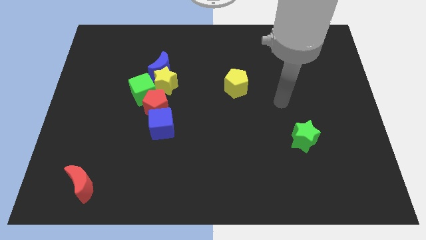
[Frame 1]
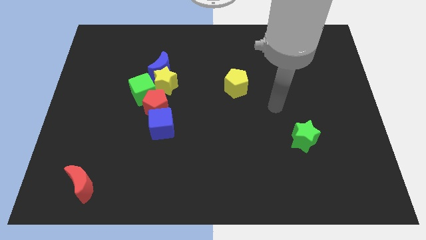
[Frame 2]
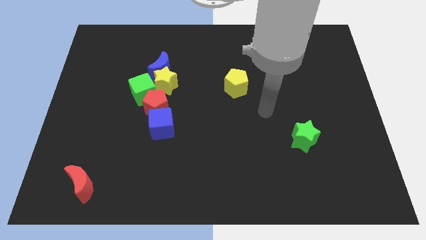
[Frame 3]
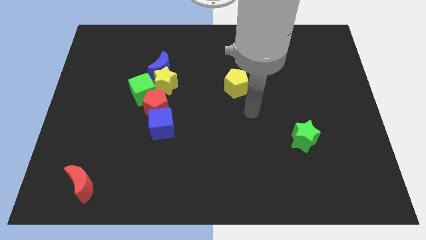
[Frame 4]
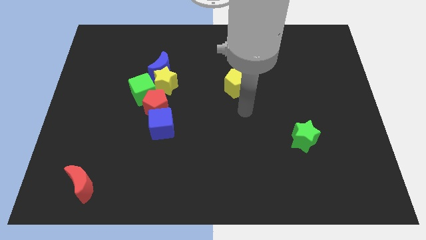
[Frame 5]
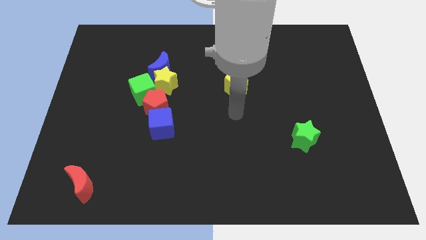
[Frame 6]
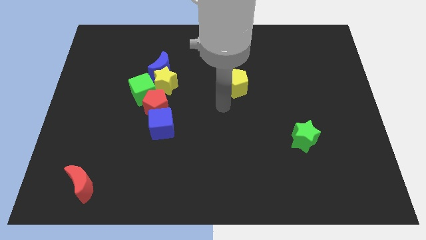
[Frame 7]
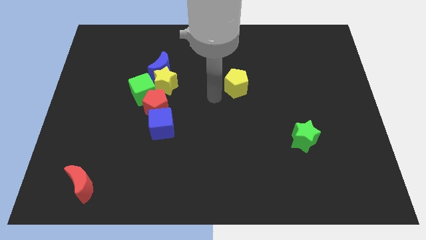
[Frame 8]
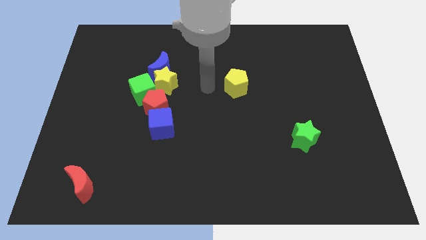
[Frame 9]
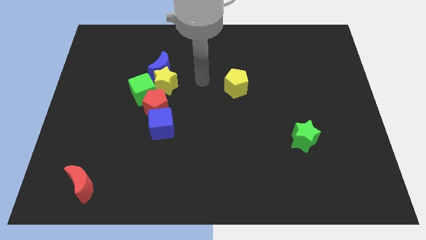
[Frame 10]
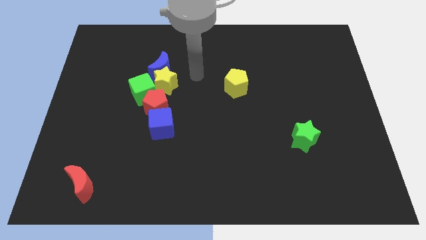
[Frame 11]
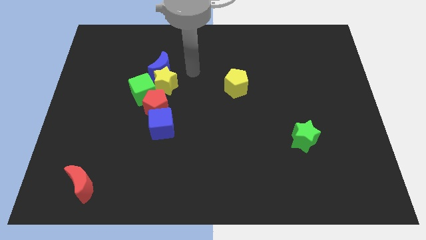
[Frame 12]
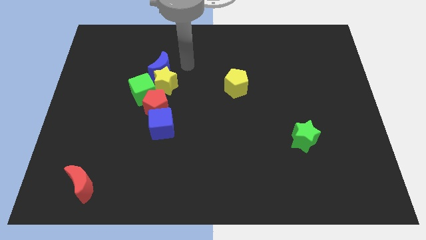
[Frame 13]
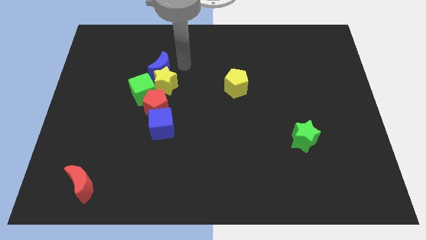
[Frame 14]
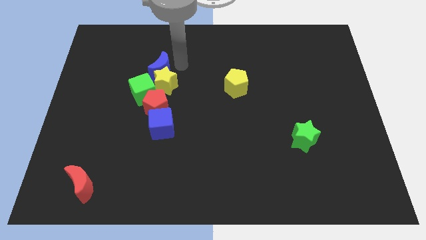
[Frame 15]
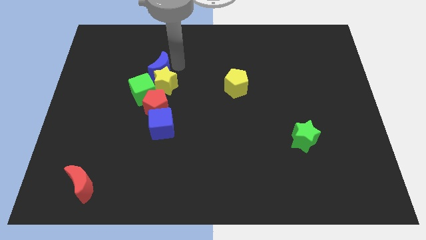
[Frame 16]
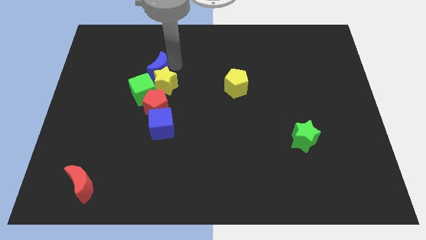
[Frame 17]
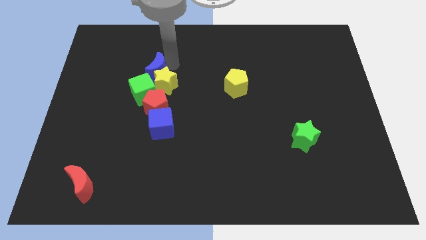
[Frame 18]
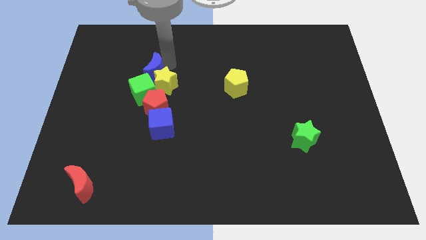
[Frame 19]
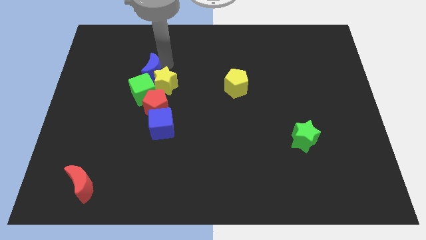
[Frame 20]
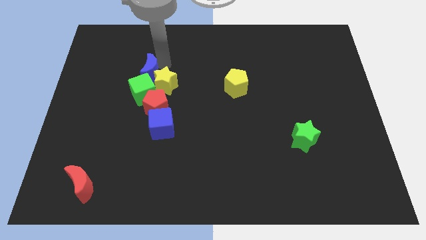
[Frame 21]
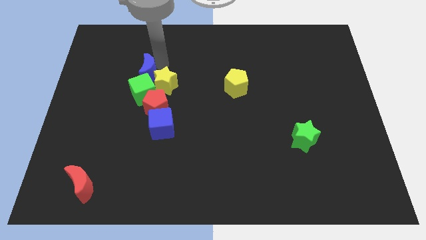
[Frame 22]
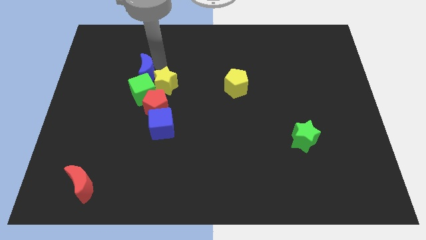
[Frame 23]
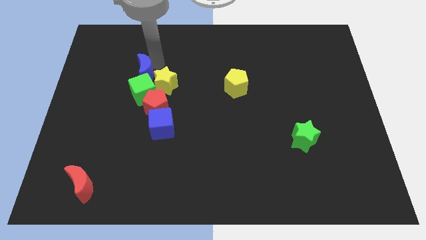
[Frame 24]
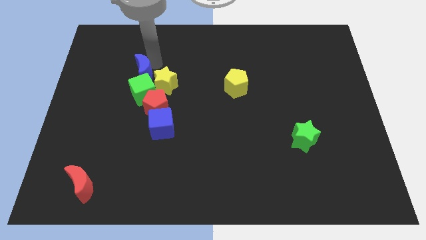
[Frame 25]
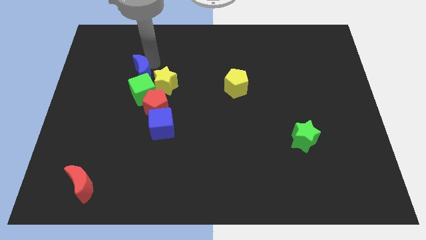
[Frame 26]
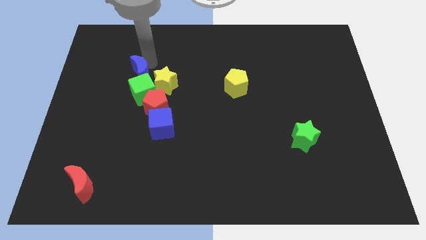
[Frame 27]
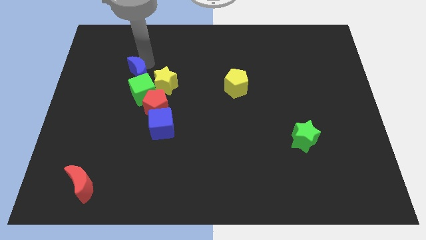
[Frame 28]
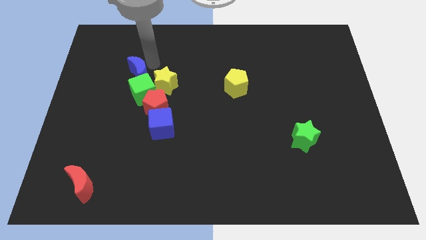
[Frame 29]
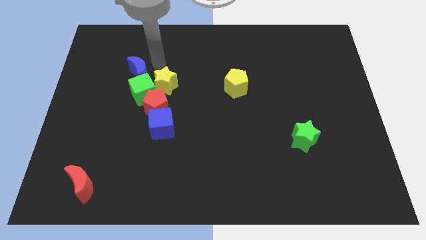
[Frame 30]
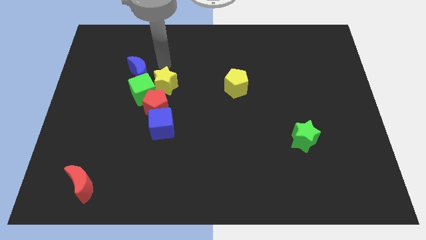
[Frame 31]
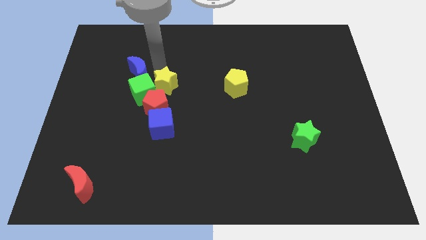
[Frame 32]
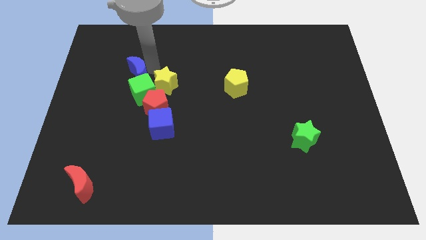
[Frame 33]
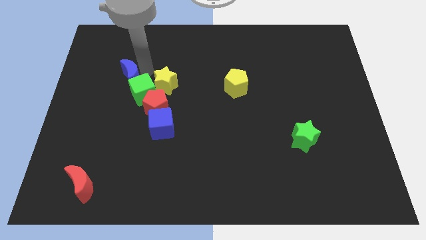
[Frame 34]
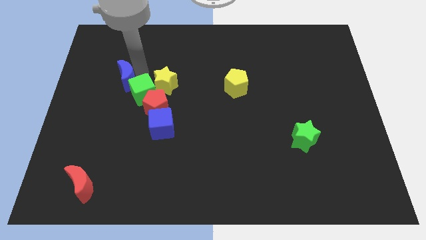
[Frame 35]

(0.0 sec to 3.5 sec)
slightly move the blue moon downwards and to the left diagonally

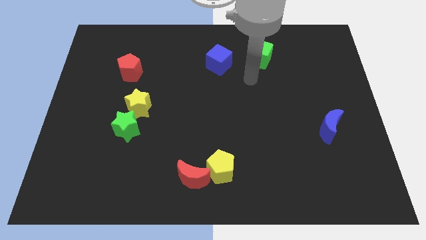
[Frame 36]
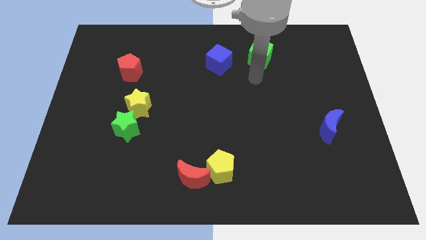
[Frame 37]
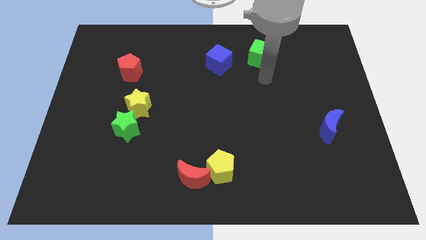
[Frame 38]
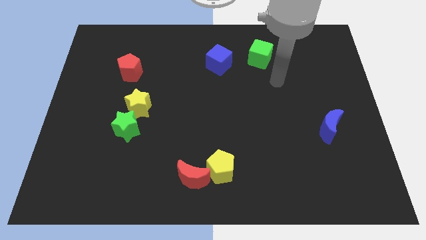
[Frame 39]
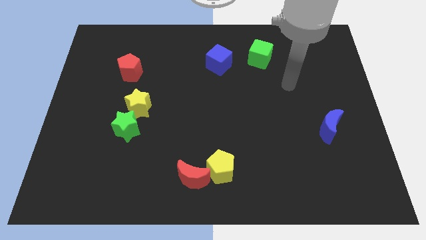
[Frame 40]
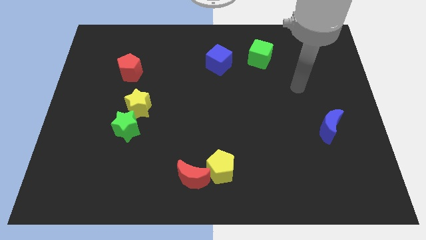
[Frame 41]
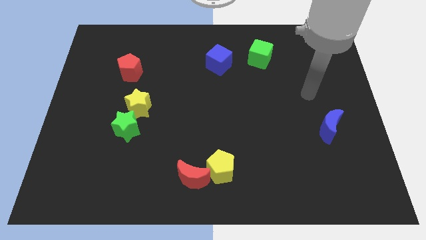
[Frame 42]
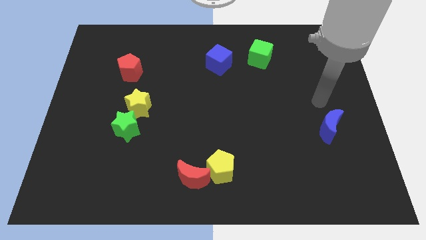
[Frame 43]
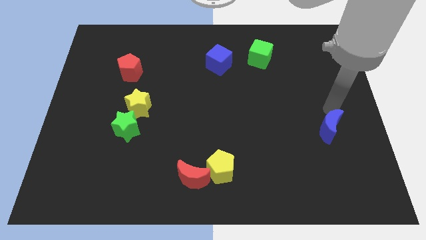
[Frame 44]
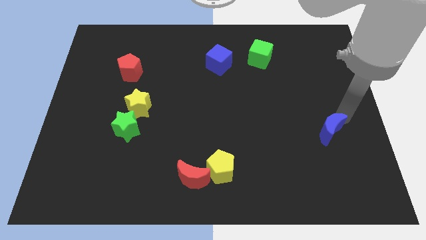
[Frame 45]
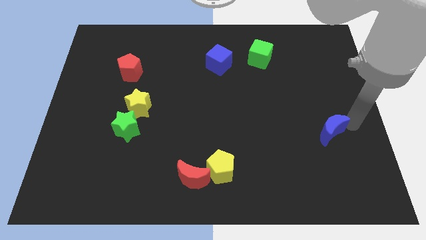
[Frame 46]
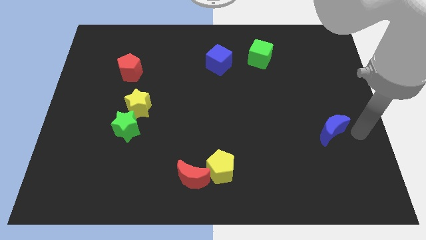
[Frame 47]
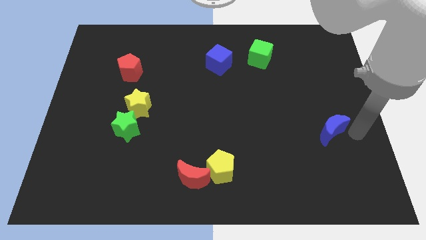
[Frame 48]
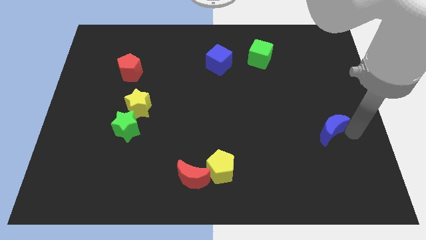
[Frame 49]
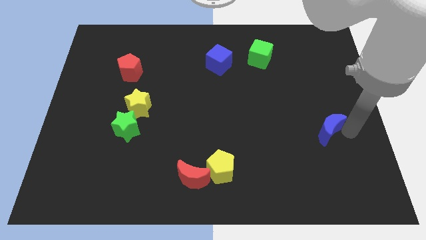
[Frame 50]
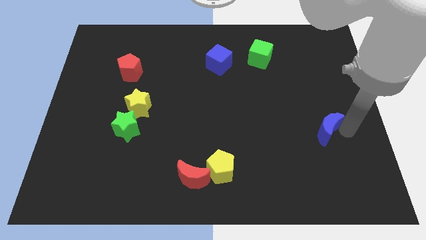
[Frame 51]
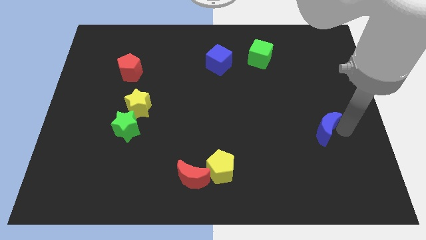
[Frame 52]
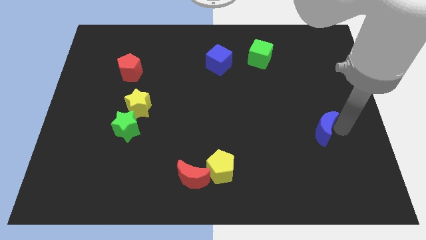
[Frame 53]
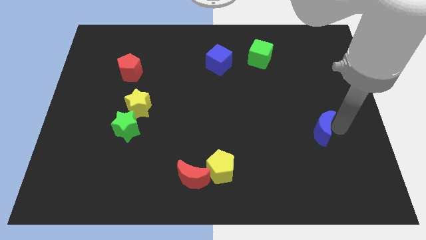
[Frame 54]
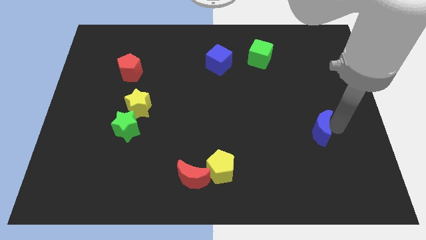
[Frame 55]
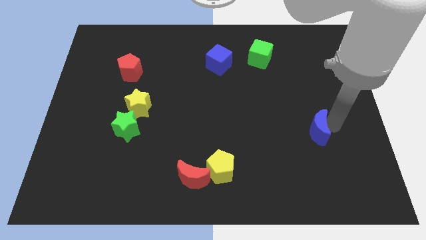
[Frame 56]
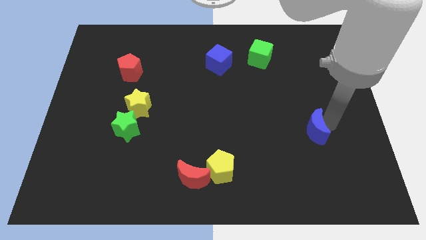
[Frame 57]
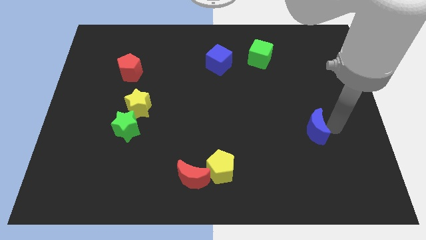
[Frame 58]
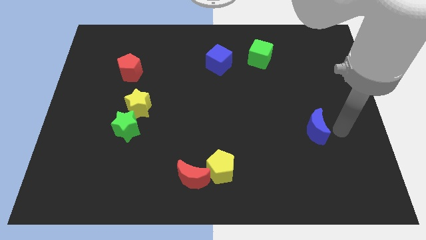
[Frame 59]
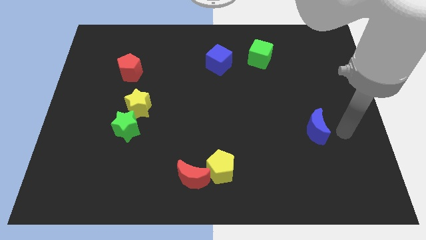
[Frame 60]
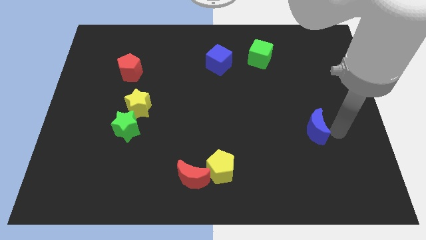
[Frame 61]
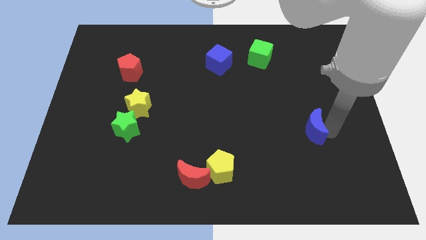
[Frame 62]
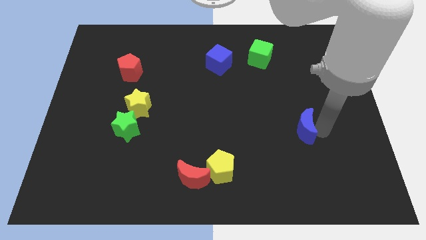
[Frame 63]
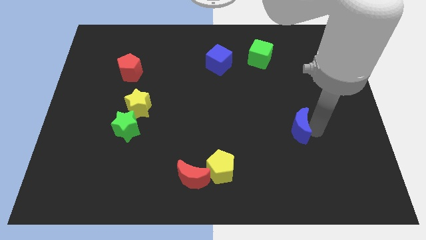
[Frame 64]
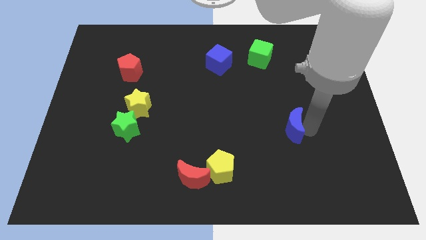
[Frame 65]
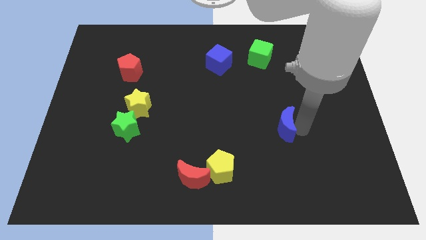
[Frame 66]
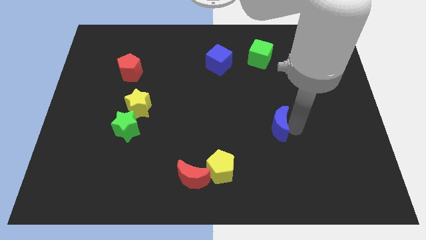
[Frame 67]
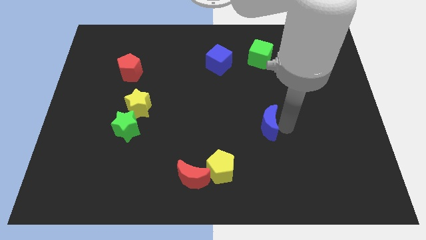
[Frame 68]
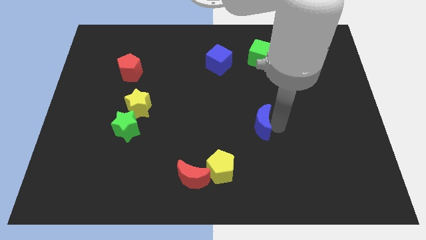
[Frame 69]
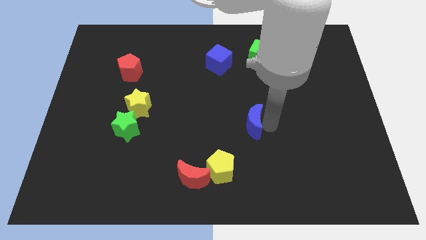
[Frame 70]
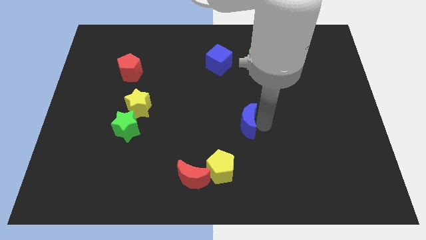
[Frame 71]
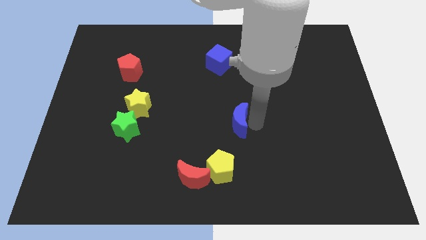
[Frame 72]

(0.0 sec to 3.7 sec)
push the blue moon to the left

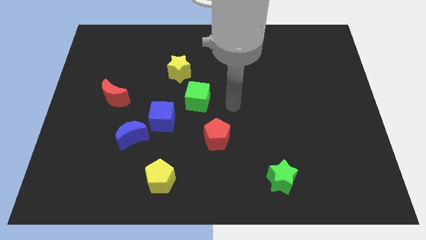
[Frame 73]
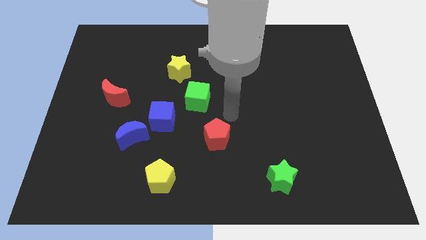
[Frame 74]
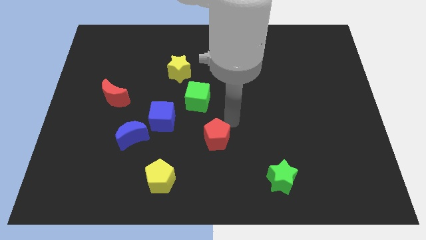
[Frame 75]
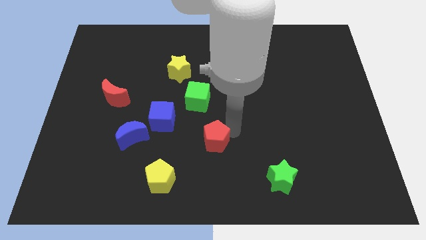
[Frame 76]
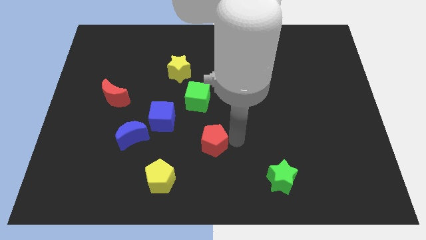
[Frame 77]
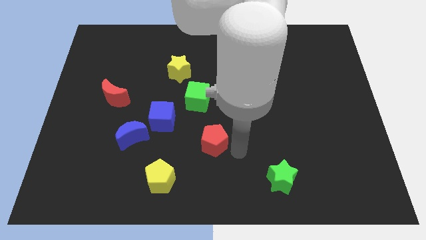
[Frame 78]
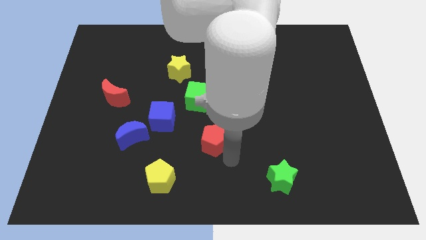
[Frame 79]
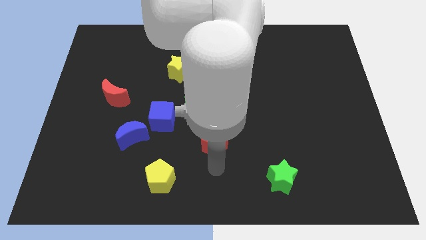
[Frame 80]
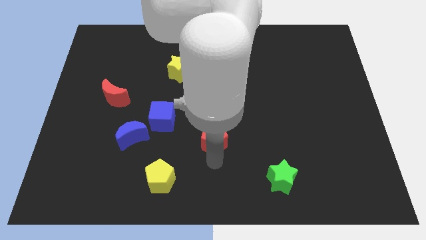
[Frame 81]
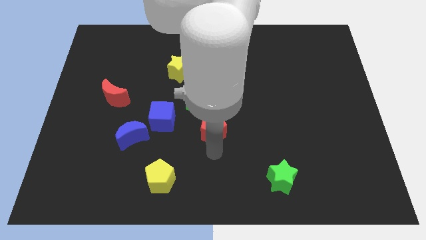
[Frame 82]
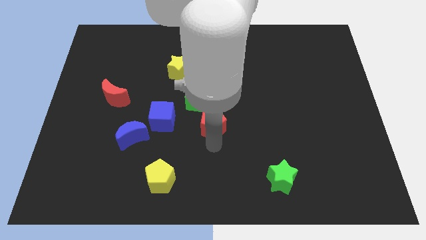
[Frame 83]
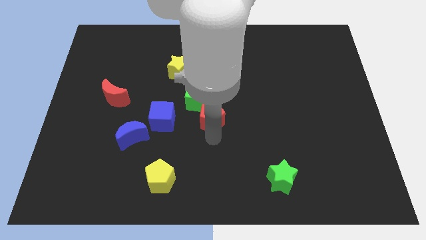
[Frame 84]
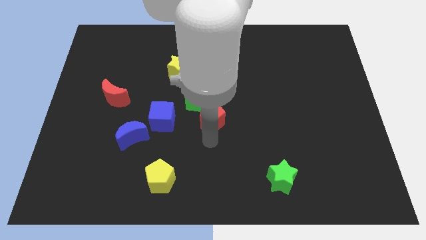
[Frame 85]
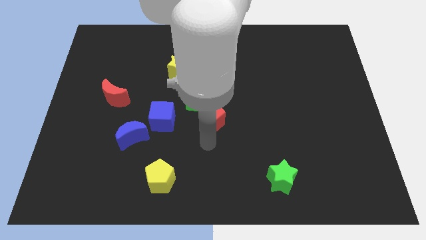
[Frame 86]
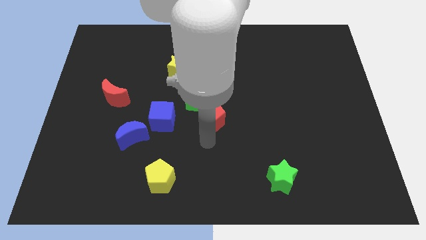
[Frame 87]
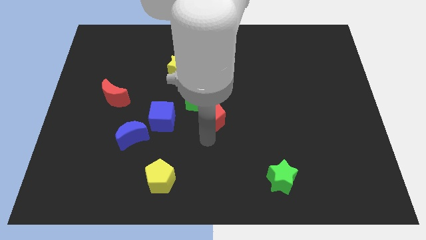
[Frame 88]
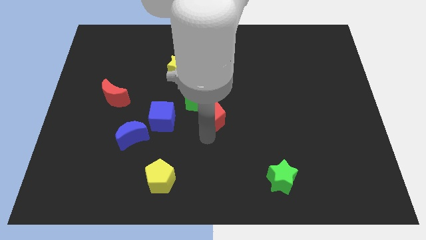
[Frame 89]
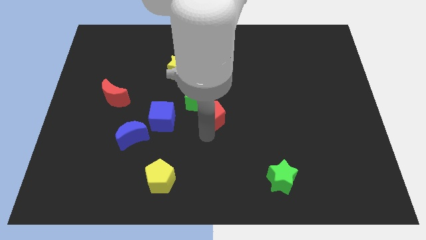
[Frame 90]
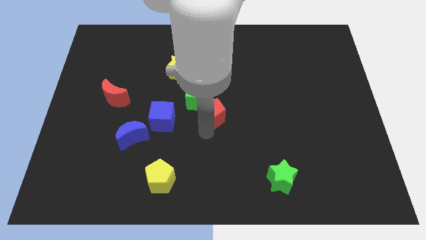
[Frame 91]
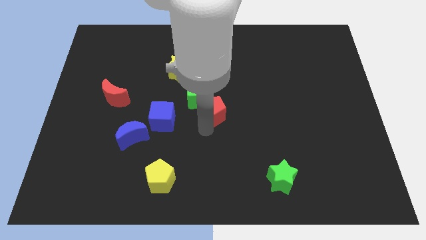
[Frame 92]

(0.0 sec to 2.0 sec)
slightly move the red pentagon up
